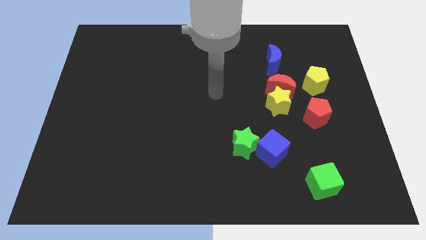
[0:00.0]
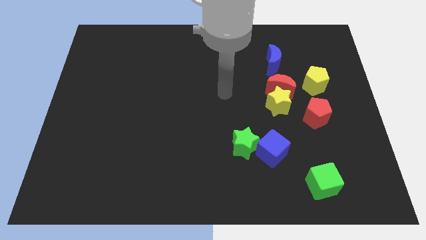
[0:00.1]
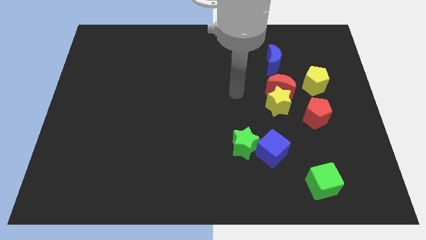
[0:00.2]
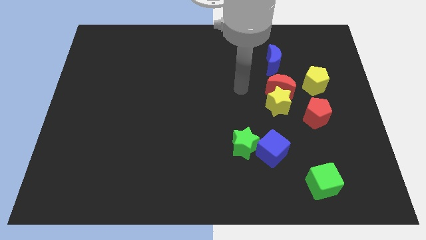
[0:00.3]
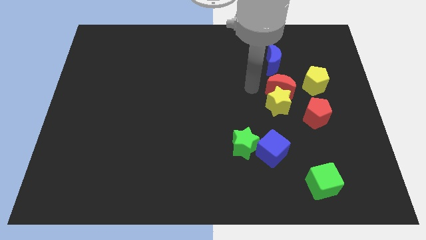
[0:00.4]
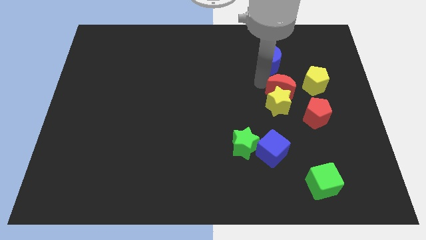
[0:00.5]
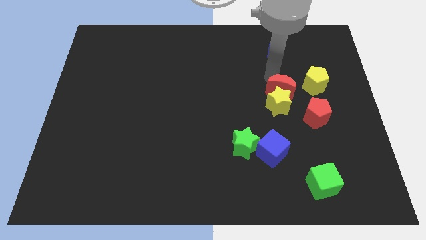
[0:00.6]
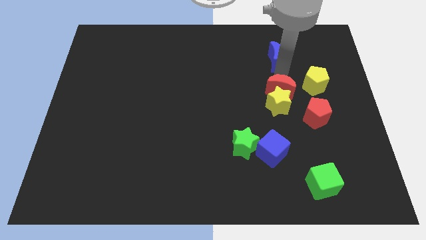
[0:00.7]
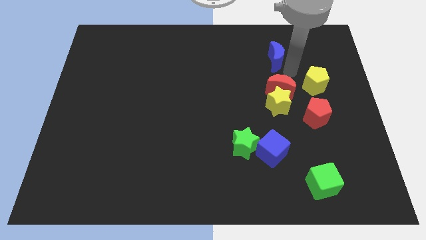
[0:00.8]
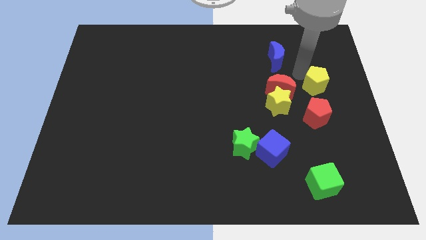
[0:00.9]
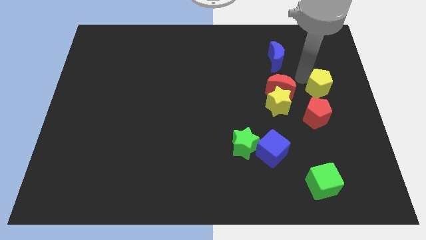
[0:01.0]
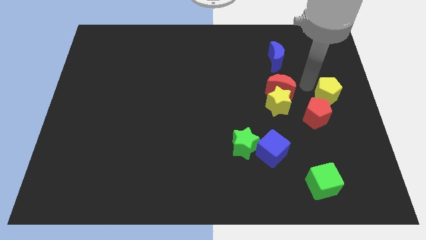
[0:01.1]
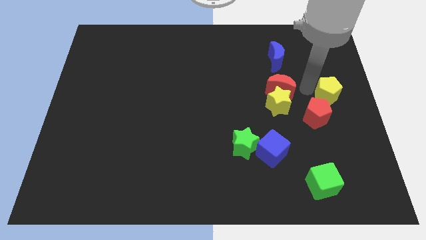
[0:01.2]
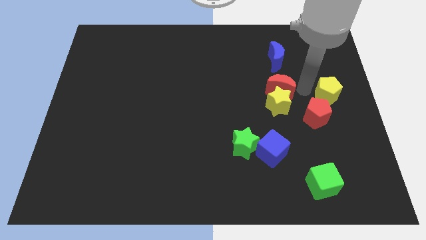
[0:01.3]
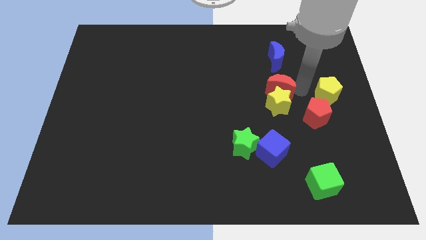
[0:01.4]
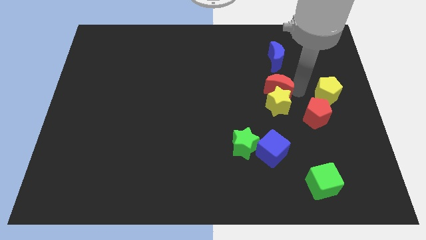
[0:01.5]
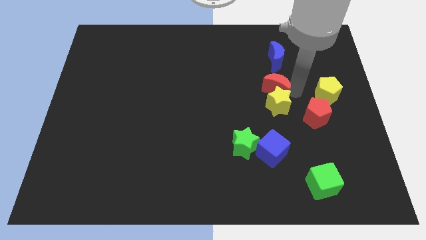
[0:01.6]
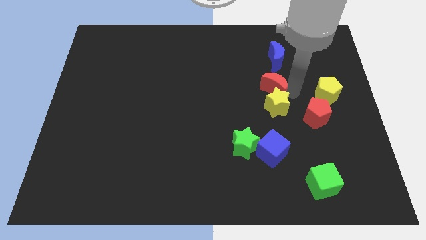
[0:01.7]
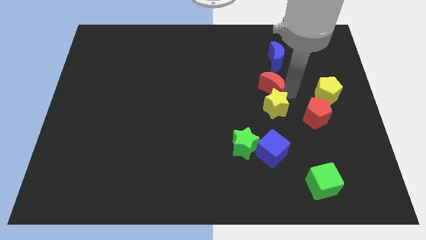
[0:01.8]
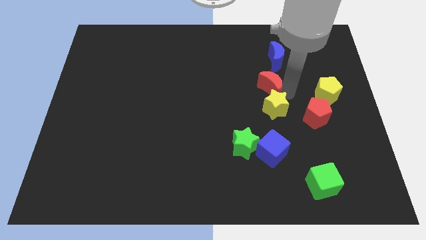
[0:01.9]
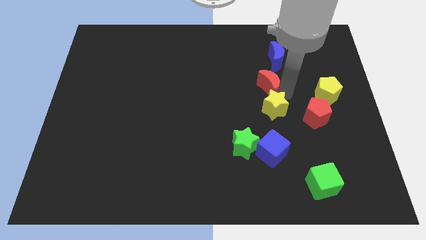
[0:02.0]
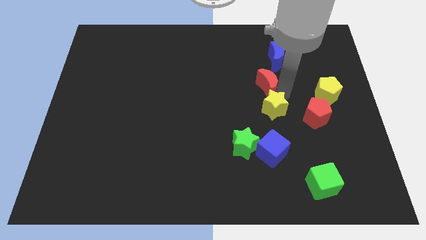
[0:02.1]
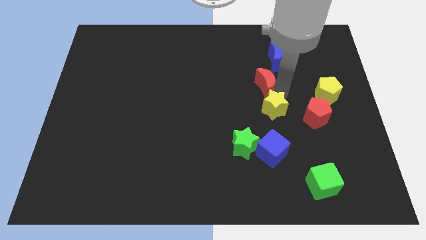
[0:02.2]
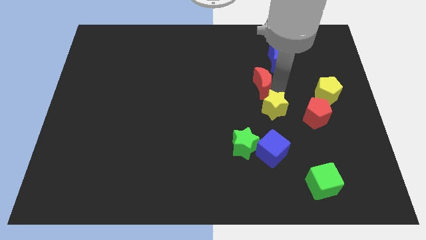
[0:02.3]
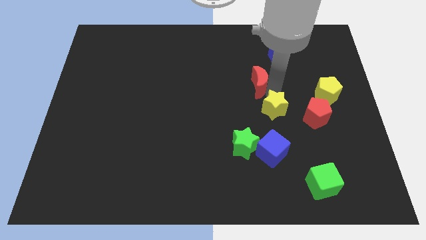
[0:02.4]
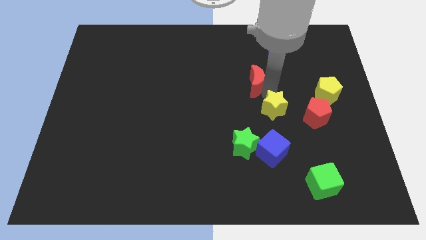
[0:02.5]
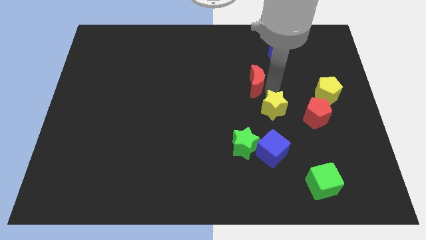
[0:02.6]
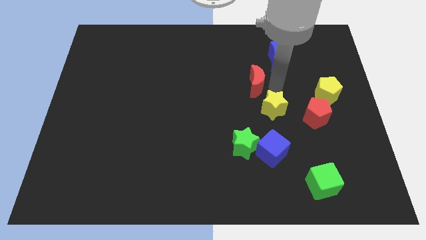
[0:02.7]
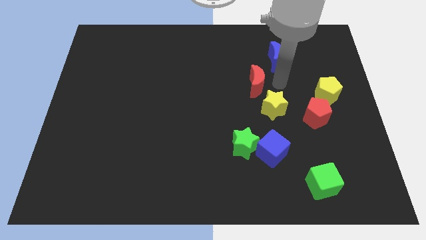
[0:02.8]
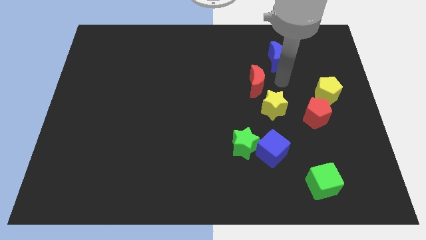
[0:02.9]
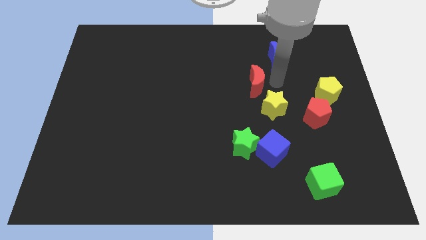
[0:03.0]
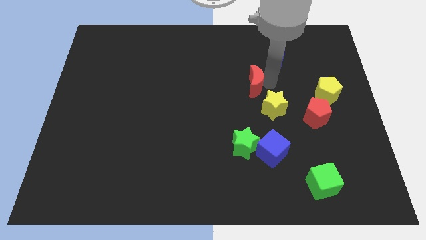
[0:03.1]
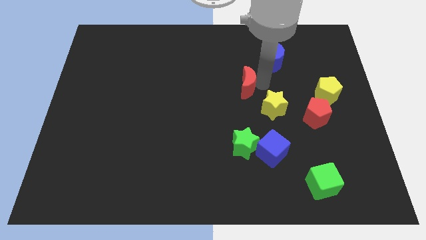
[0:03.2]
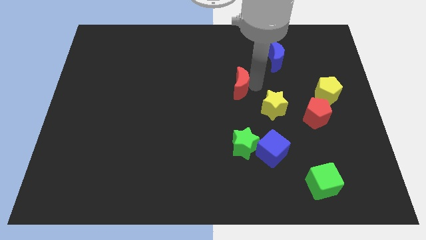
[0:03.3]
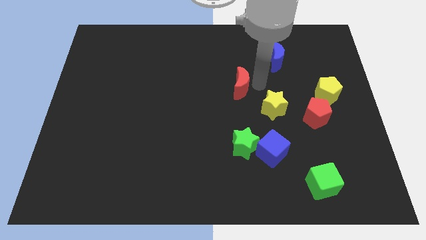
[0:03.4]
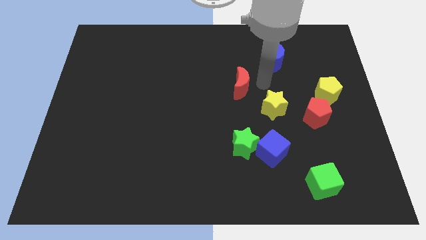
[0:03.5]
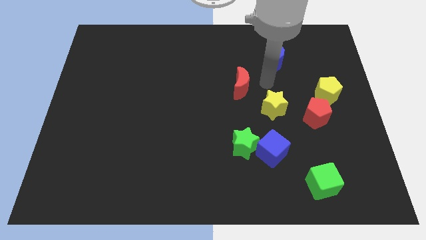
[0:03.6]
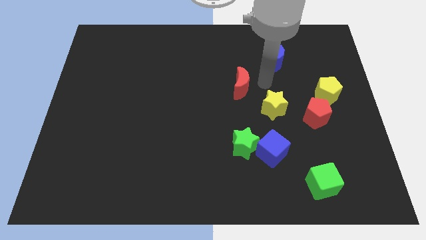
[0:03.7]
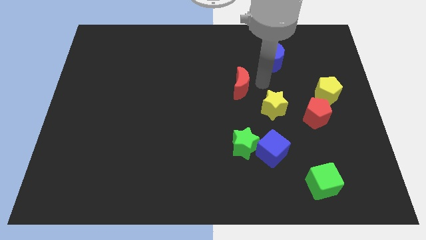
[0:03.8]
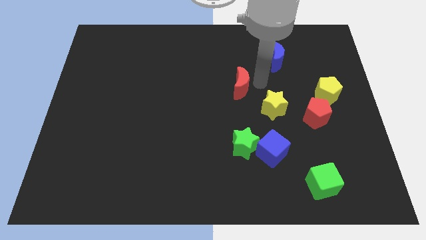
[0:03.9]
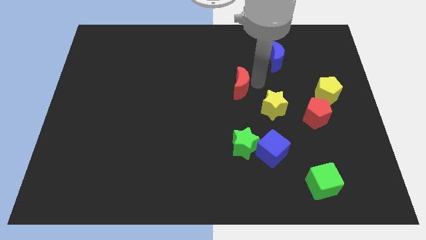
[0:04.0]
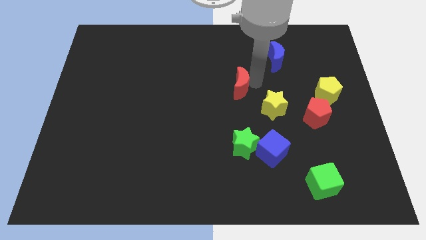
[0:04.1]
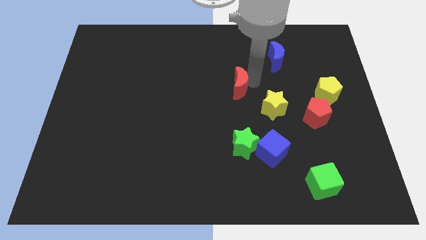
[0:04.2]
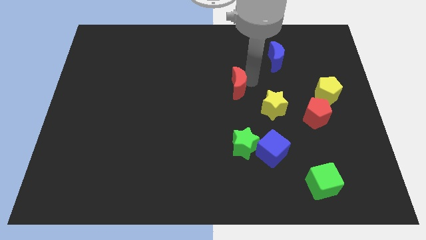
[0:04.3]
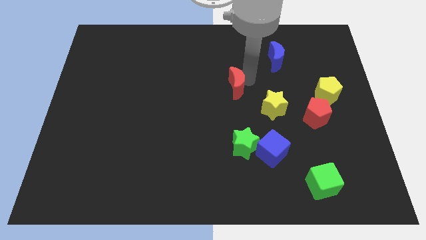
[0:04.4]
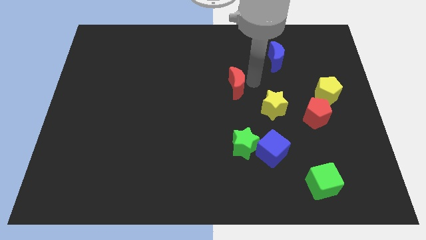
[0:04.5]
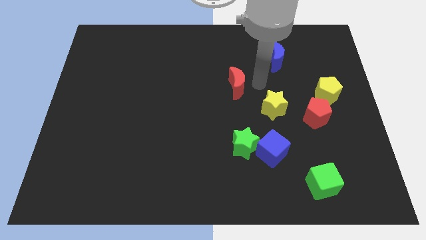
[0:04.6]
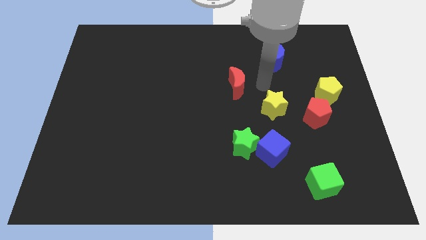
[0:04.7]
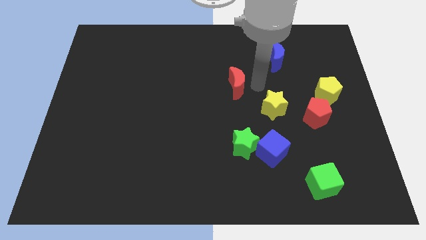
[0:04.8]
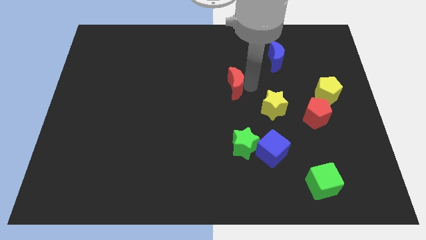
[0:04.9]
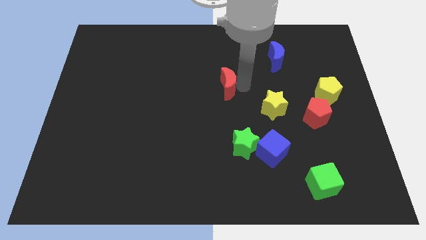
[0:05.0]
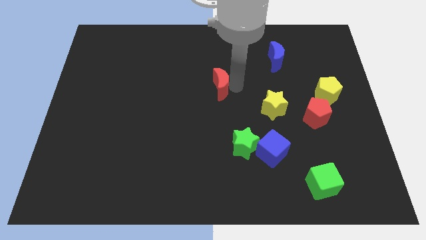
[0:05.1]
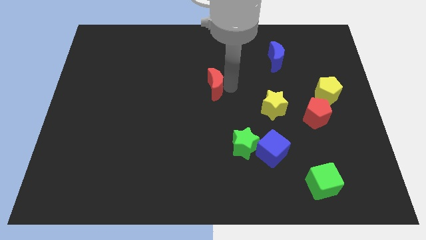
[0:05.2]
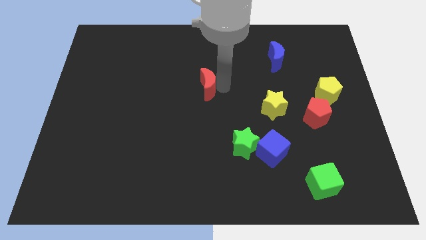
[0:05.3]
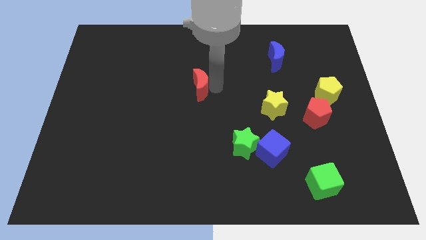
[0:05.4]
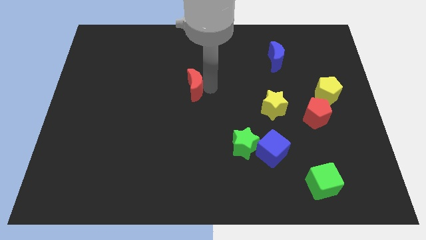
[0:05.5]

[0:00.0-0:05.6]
move the red moon to the left

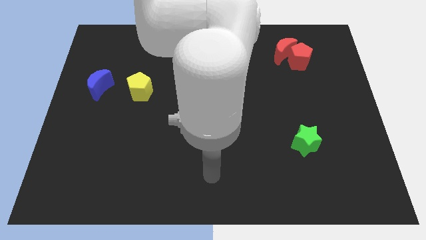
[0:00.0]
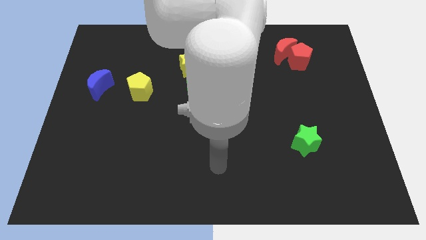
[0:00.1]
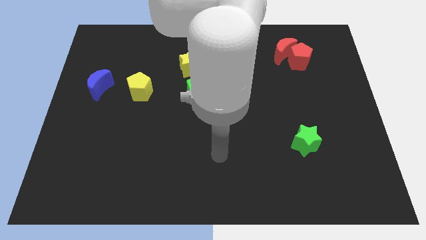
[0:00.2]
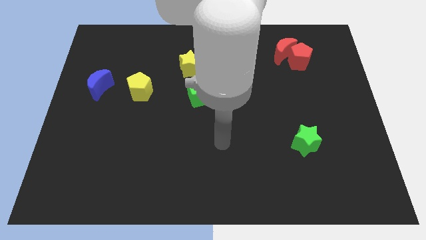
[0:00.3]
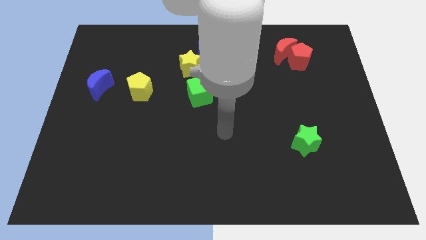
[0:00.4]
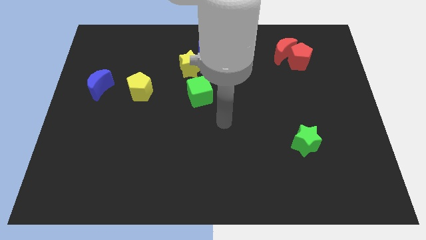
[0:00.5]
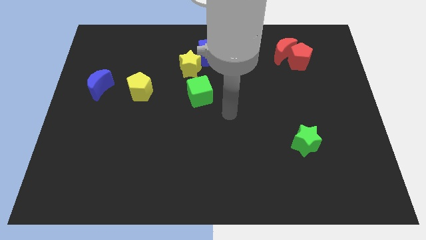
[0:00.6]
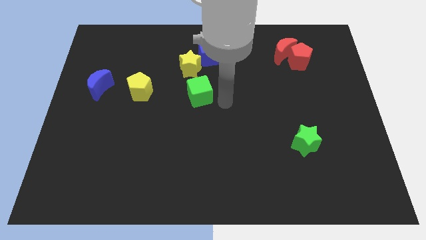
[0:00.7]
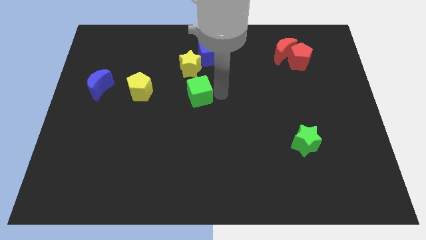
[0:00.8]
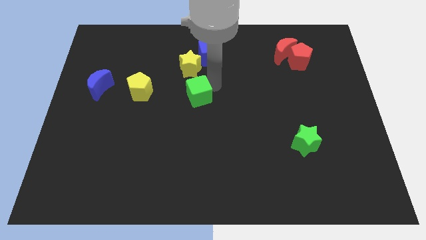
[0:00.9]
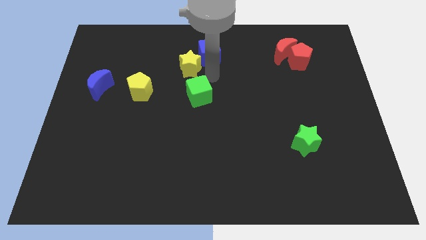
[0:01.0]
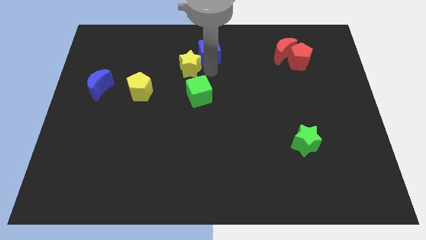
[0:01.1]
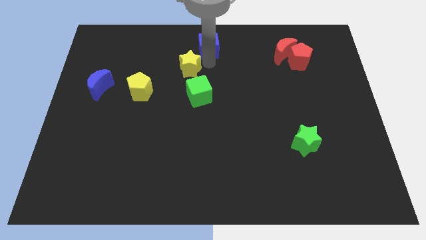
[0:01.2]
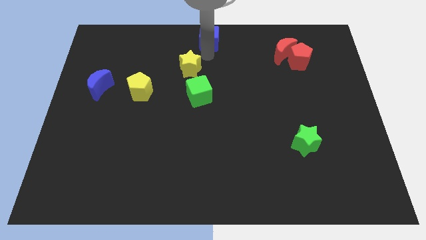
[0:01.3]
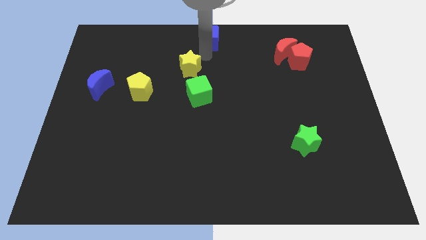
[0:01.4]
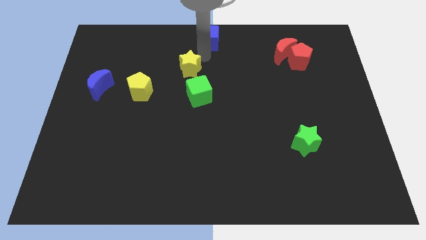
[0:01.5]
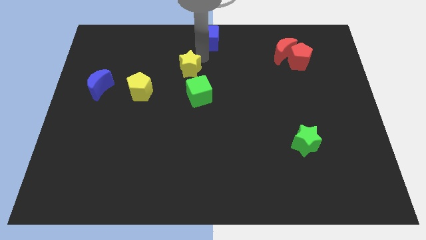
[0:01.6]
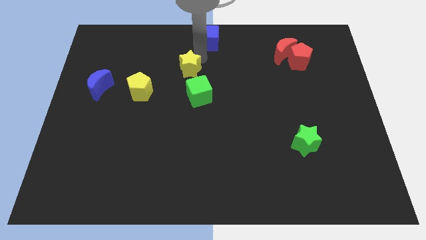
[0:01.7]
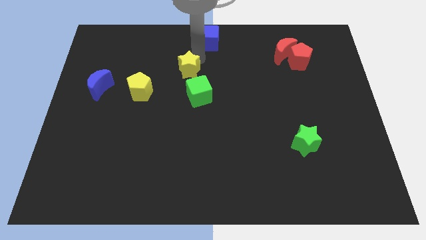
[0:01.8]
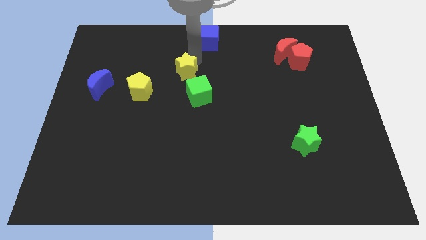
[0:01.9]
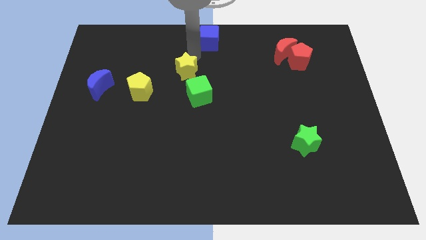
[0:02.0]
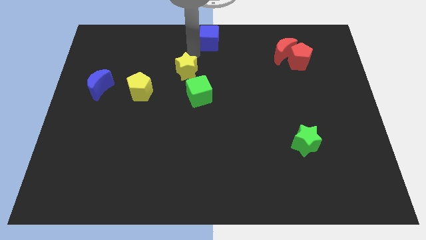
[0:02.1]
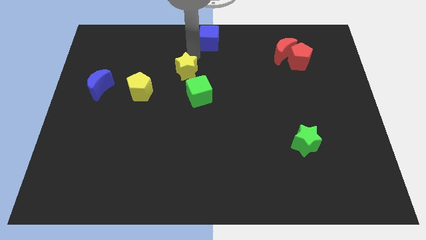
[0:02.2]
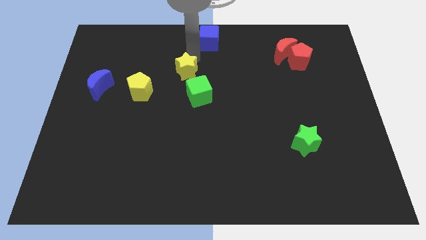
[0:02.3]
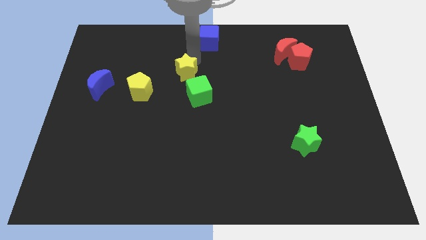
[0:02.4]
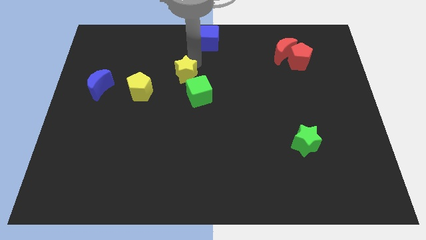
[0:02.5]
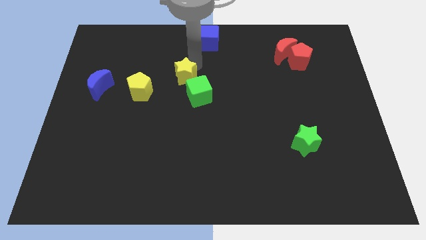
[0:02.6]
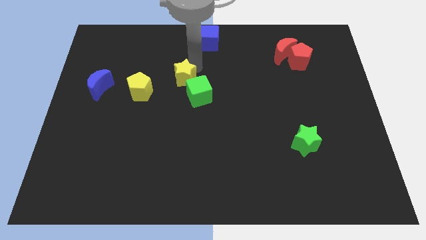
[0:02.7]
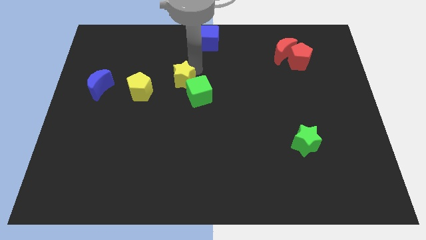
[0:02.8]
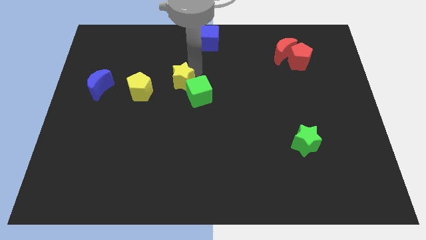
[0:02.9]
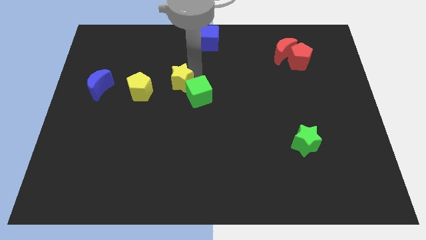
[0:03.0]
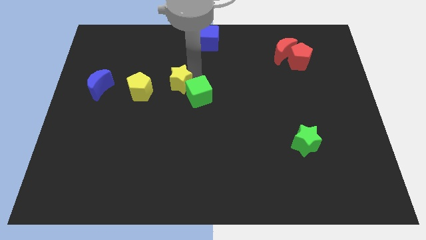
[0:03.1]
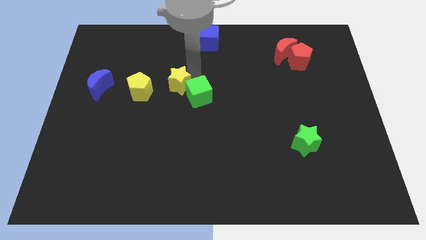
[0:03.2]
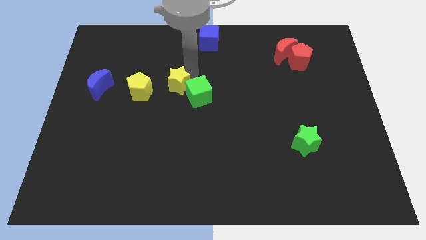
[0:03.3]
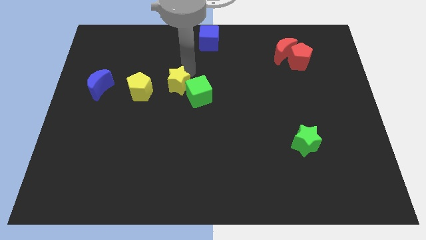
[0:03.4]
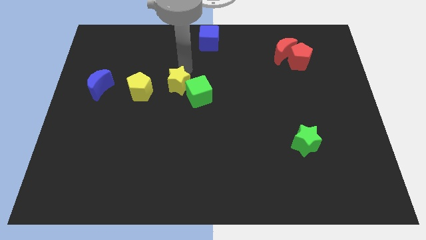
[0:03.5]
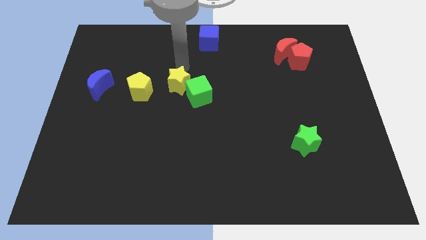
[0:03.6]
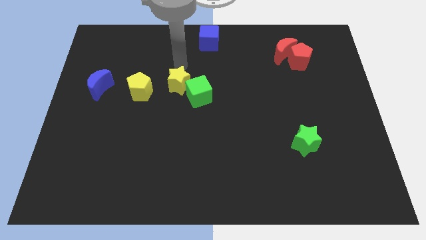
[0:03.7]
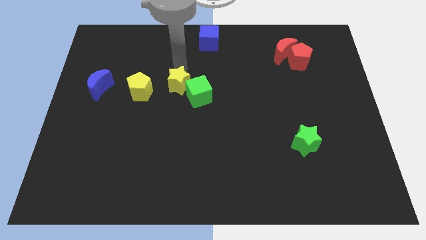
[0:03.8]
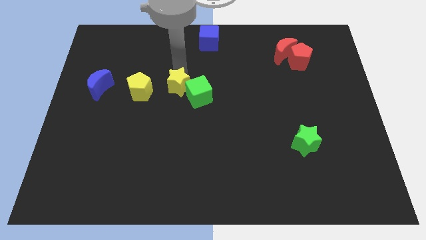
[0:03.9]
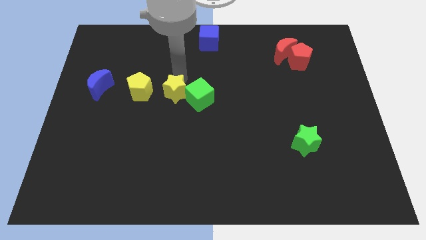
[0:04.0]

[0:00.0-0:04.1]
slightly push the yellow star down
